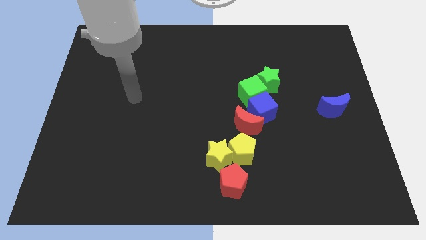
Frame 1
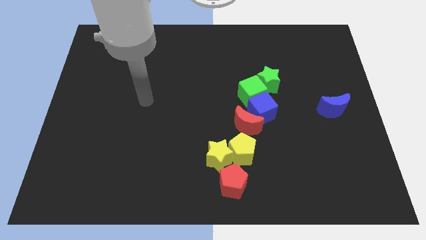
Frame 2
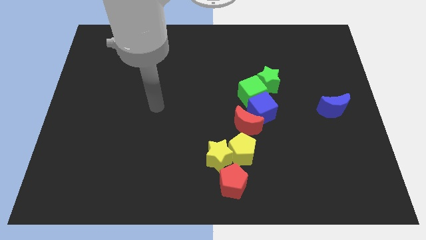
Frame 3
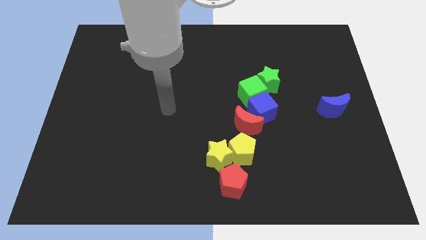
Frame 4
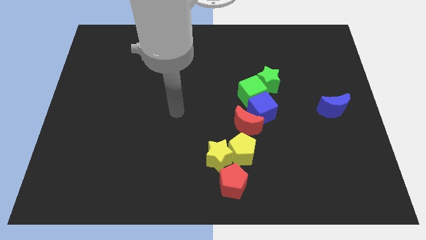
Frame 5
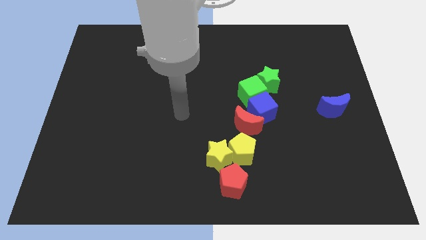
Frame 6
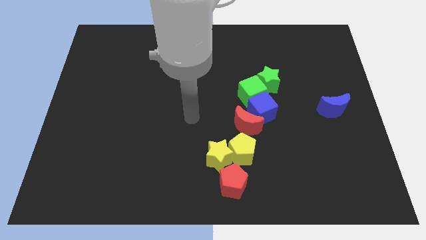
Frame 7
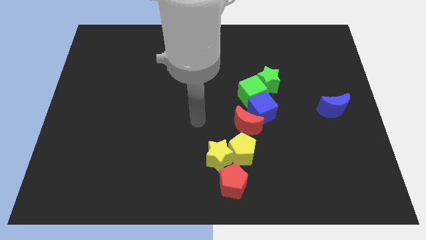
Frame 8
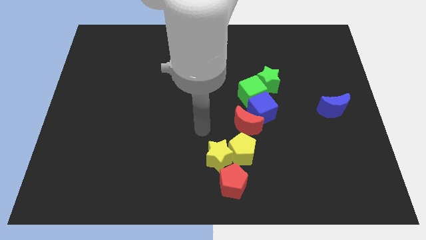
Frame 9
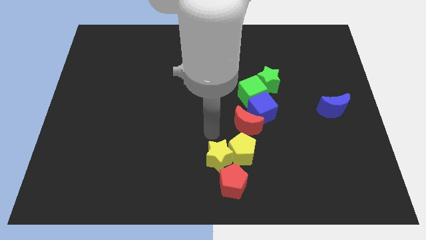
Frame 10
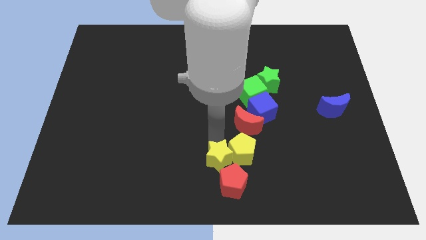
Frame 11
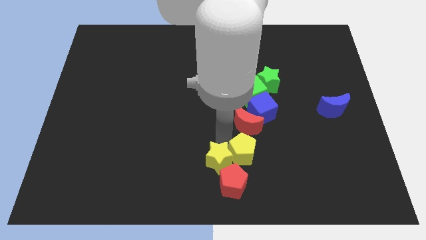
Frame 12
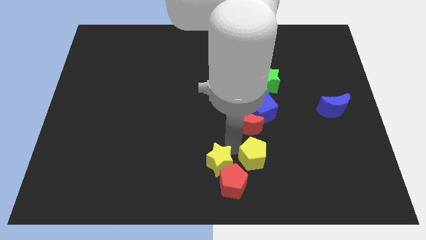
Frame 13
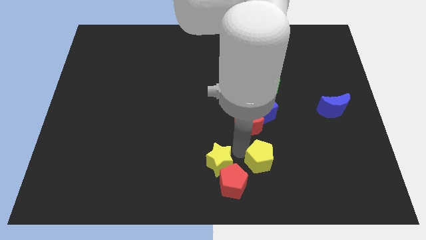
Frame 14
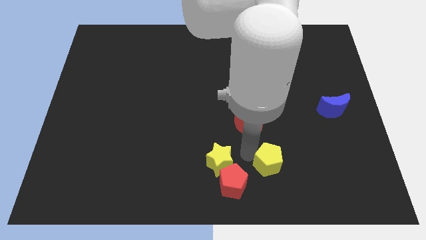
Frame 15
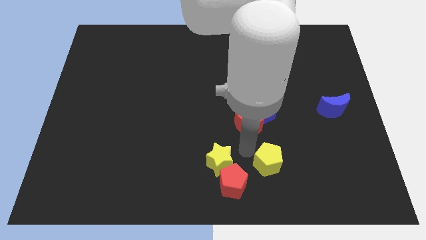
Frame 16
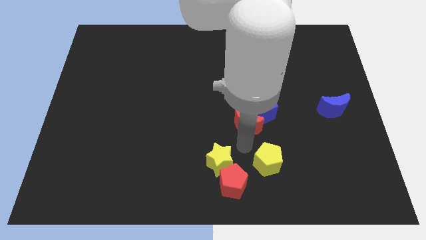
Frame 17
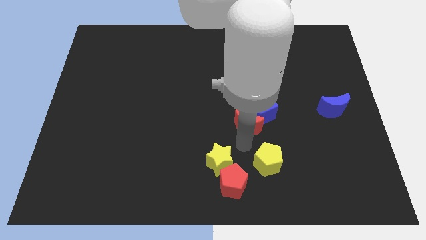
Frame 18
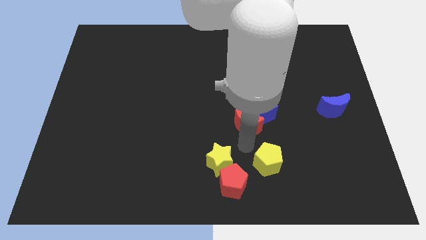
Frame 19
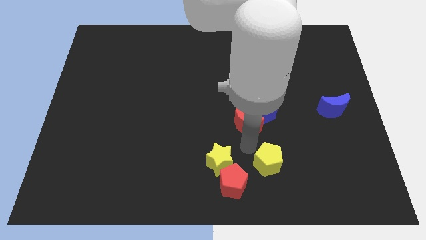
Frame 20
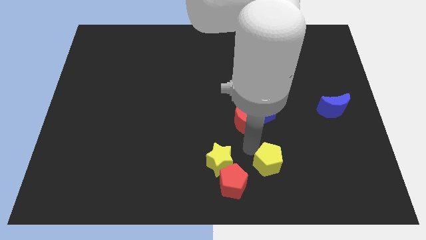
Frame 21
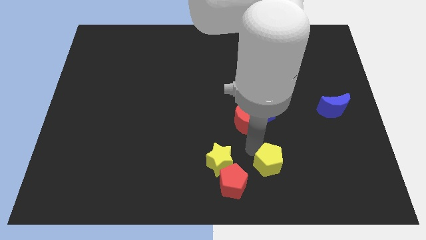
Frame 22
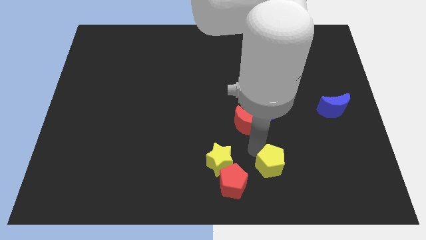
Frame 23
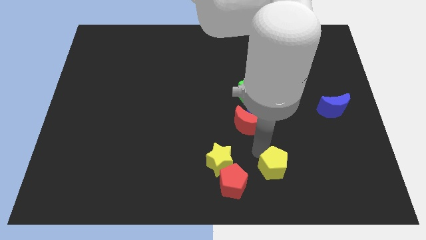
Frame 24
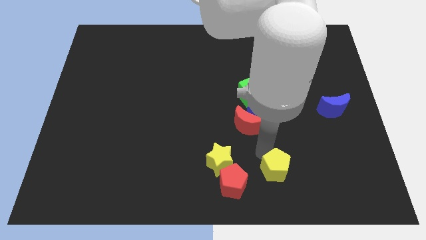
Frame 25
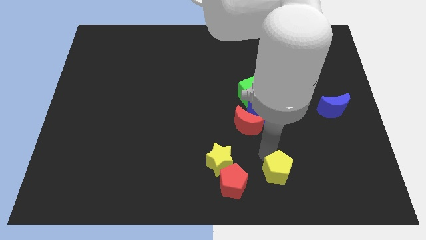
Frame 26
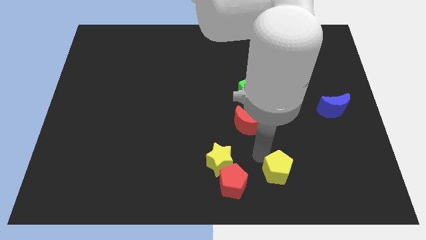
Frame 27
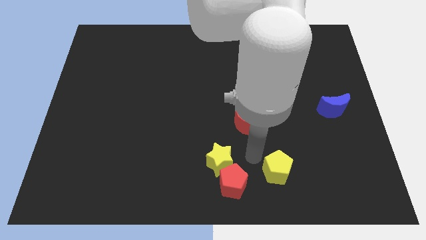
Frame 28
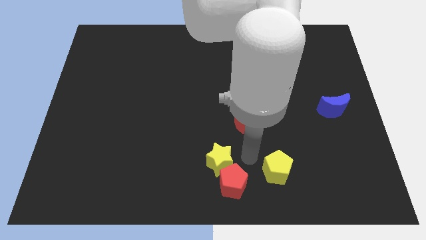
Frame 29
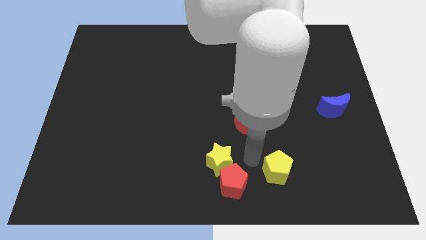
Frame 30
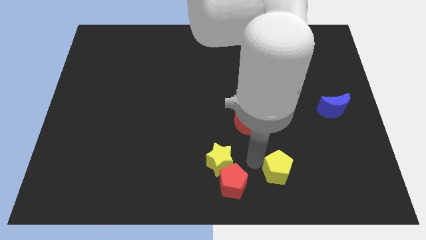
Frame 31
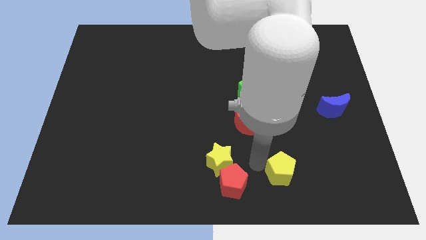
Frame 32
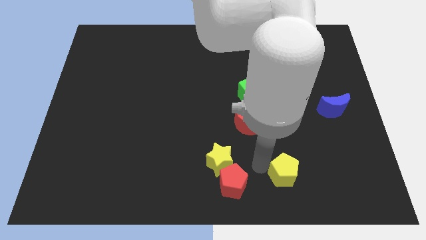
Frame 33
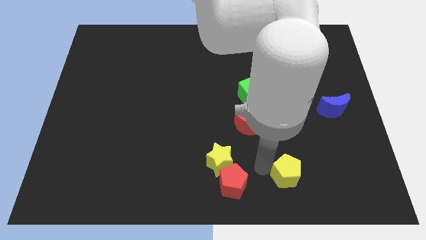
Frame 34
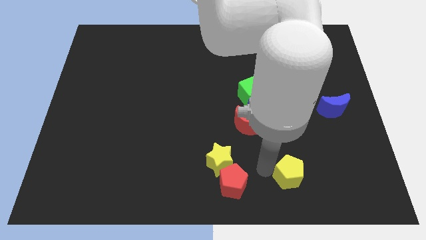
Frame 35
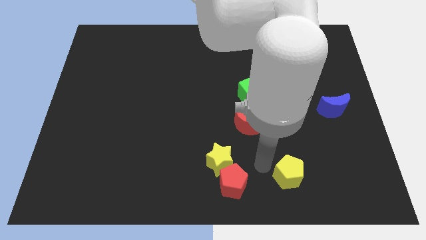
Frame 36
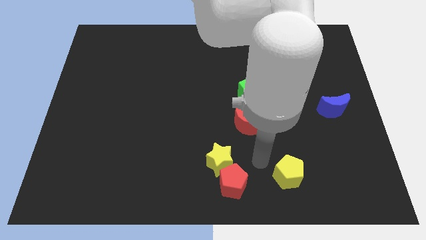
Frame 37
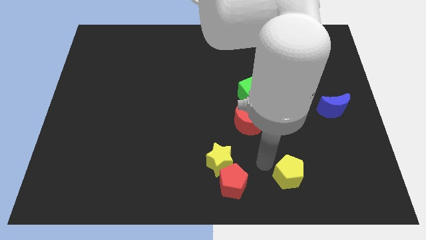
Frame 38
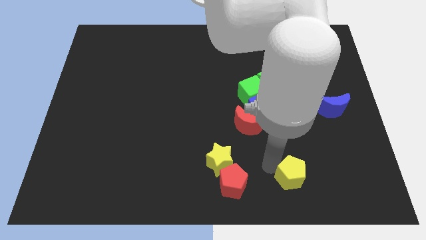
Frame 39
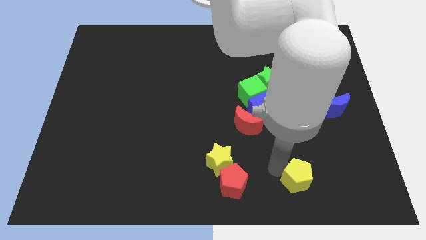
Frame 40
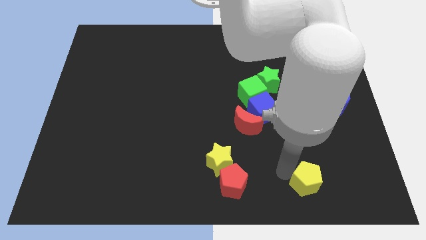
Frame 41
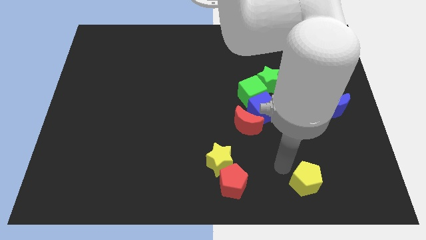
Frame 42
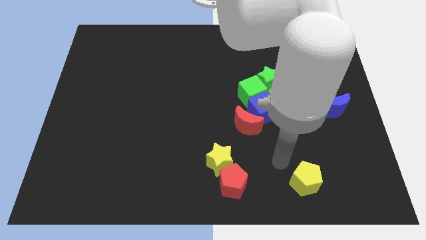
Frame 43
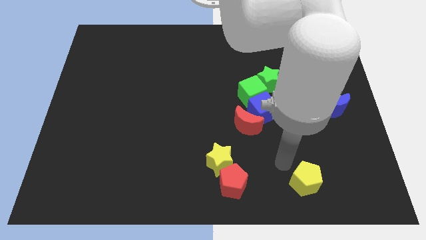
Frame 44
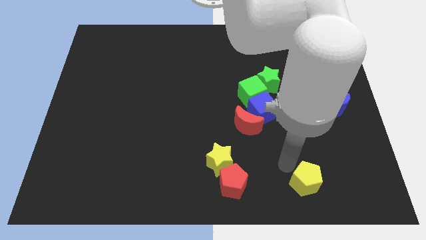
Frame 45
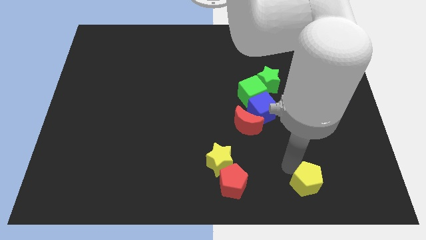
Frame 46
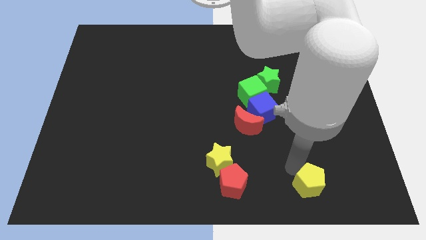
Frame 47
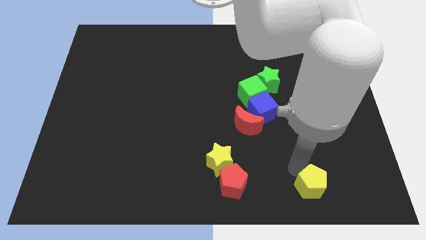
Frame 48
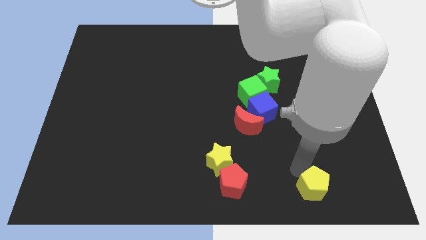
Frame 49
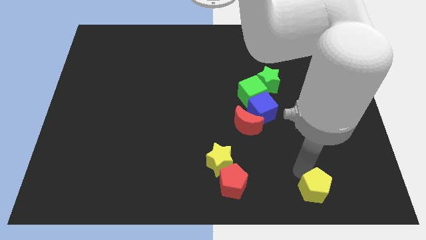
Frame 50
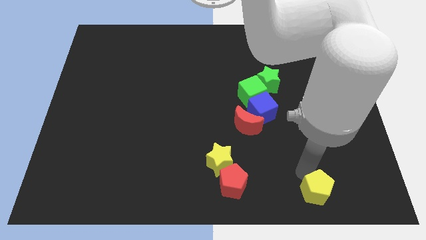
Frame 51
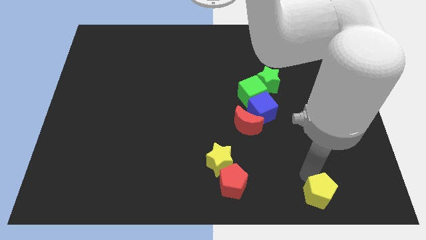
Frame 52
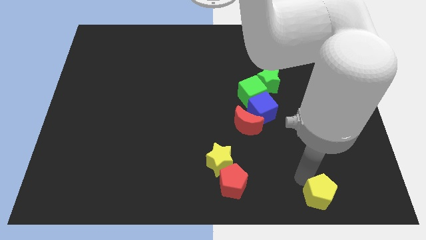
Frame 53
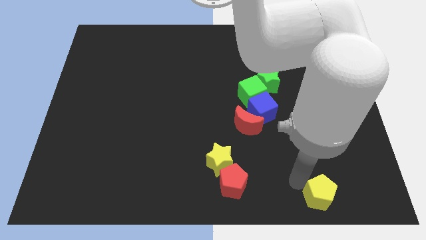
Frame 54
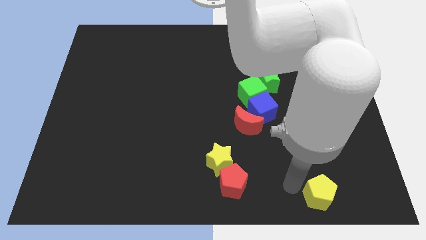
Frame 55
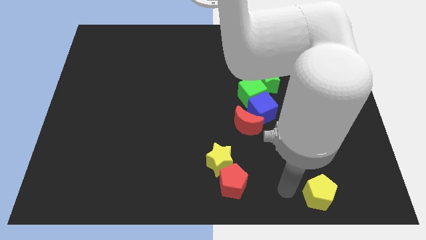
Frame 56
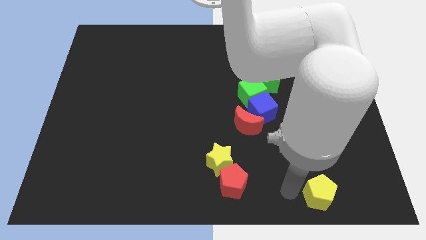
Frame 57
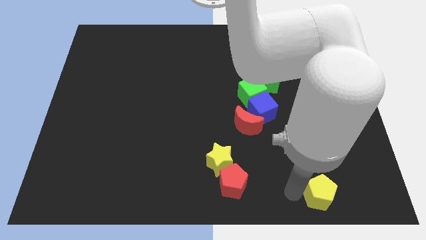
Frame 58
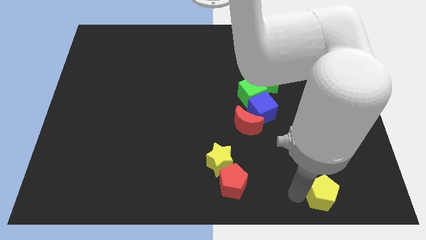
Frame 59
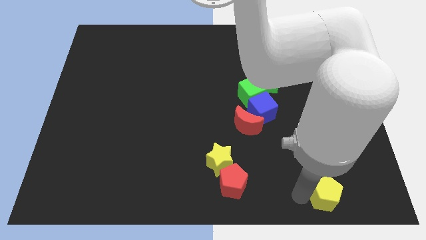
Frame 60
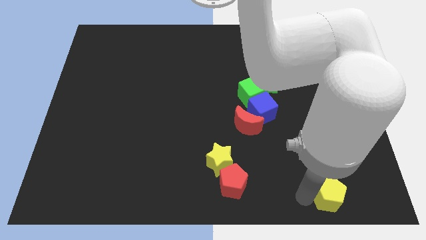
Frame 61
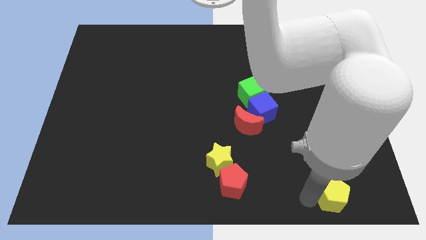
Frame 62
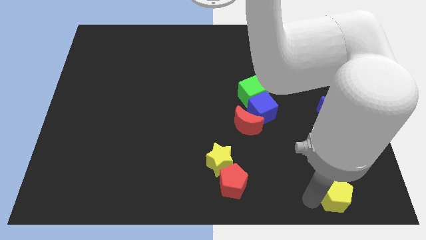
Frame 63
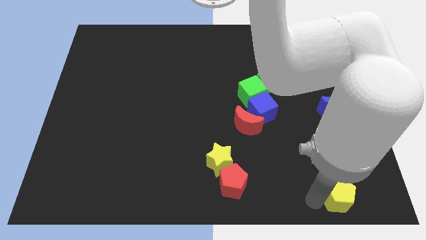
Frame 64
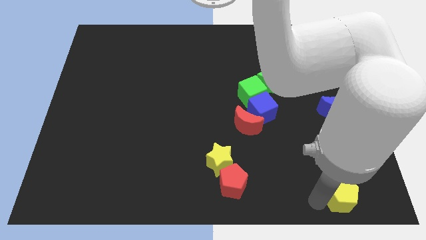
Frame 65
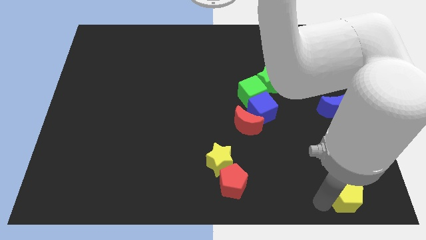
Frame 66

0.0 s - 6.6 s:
push the yellow pentagon to the bottom right

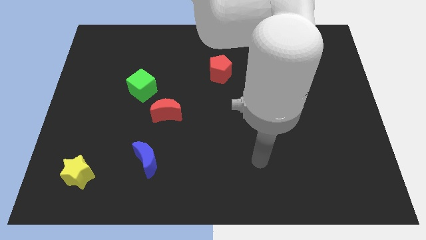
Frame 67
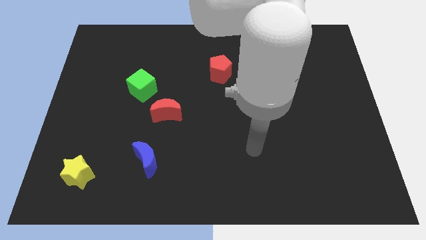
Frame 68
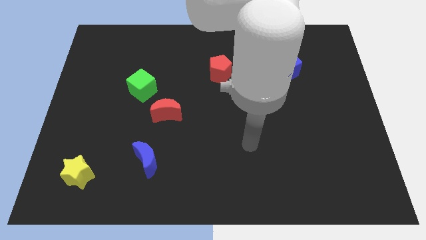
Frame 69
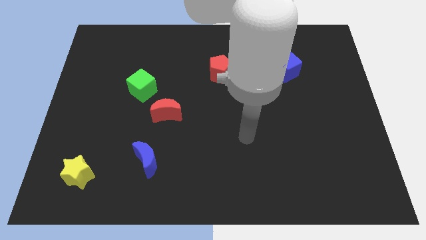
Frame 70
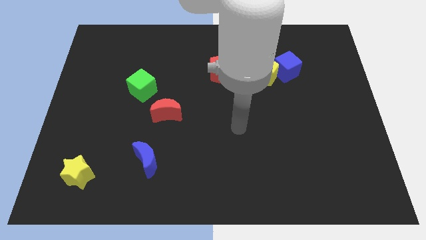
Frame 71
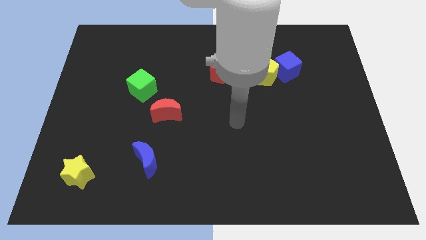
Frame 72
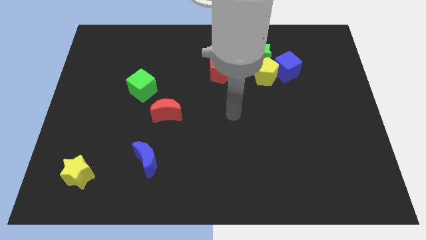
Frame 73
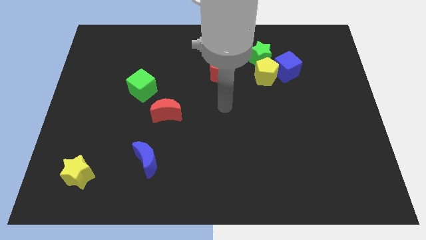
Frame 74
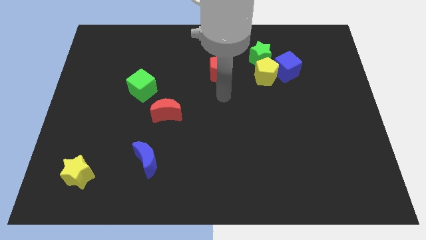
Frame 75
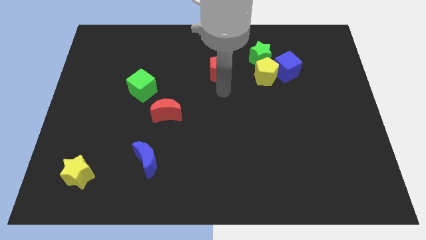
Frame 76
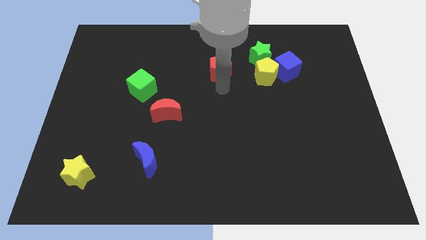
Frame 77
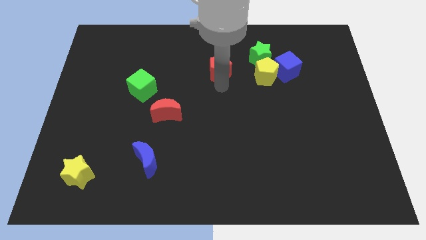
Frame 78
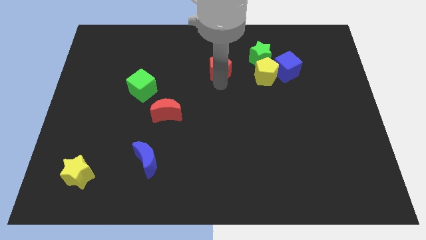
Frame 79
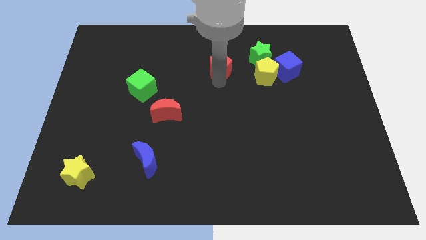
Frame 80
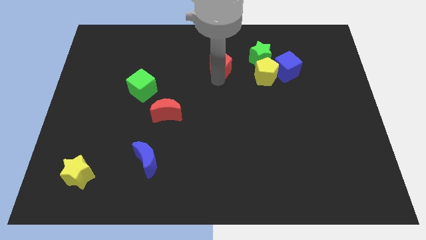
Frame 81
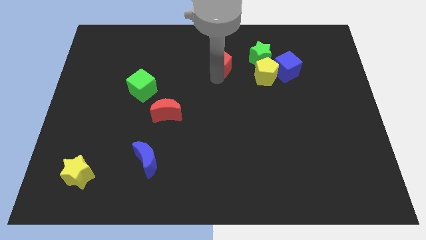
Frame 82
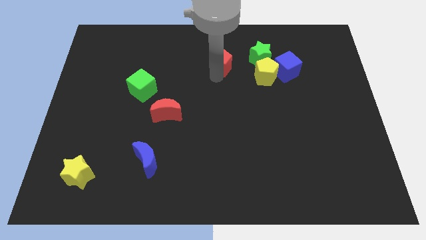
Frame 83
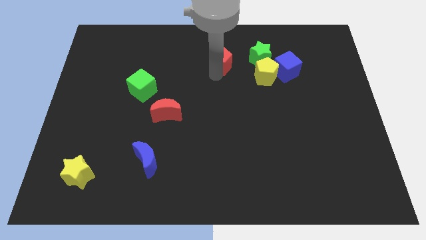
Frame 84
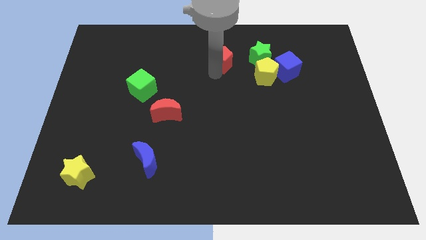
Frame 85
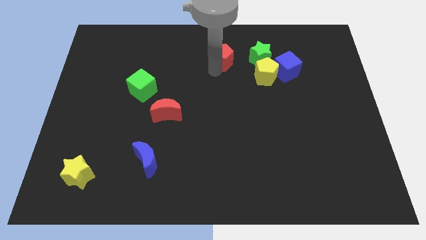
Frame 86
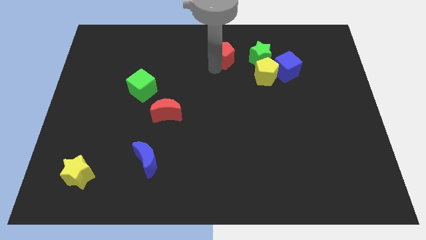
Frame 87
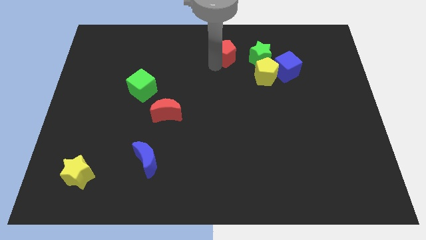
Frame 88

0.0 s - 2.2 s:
move the red pentagon to the top
